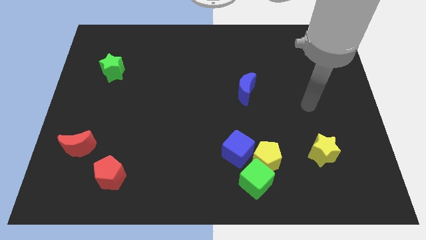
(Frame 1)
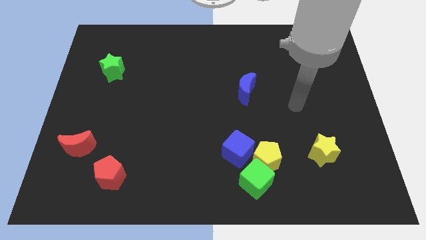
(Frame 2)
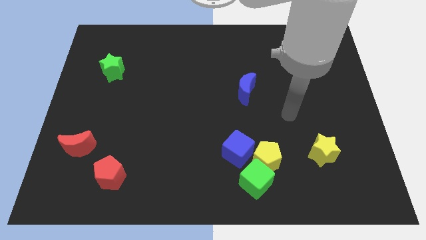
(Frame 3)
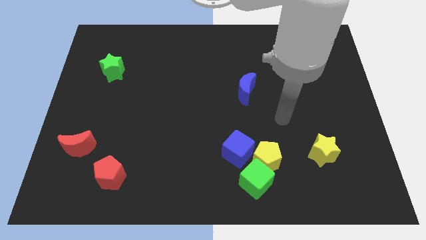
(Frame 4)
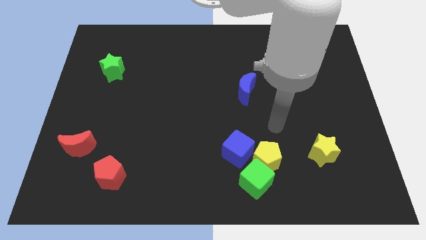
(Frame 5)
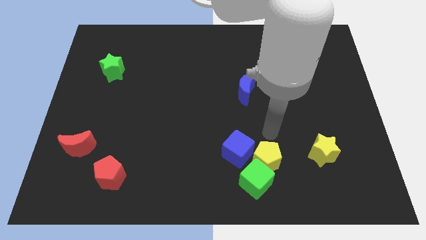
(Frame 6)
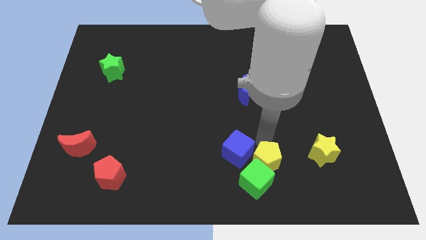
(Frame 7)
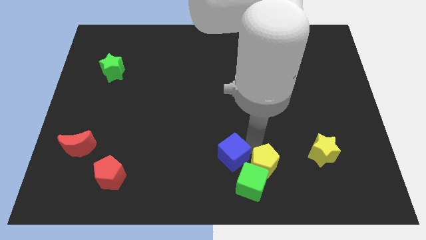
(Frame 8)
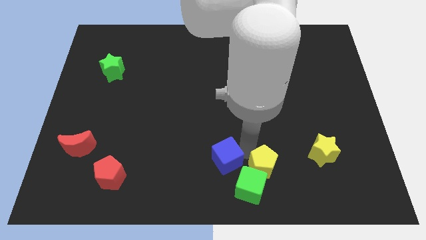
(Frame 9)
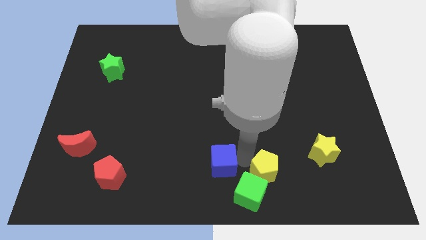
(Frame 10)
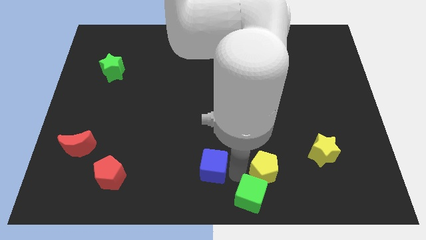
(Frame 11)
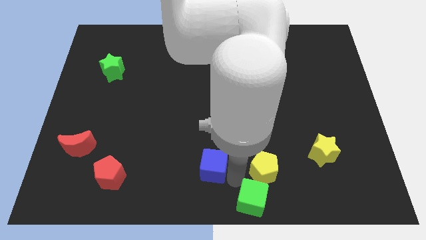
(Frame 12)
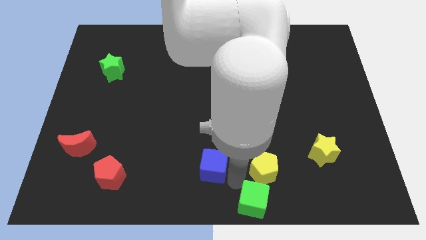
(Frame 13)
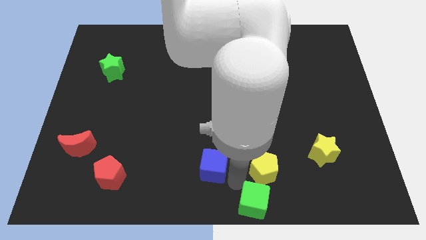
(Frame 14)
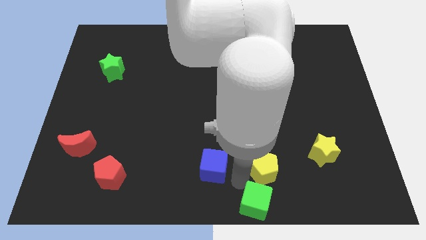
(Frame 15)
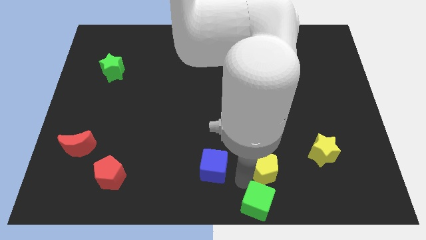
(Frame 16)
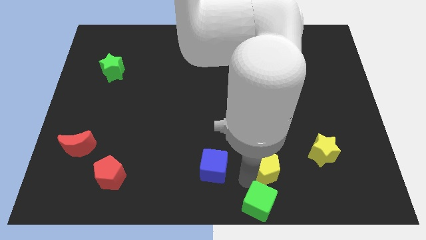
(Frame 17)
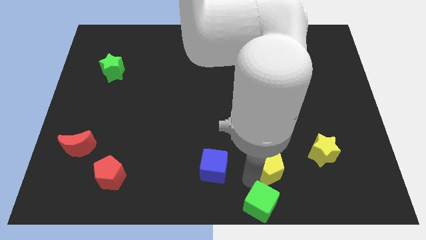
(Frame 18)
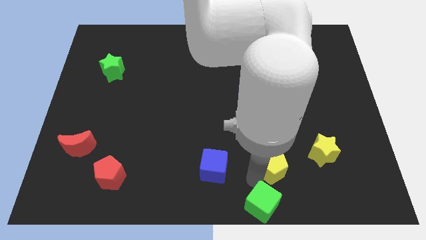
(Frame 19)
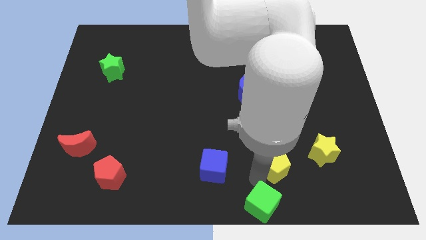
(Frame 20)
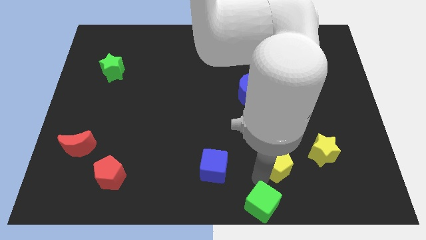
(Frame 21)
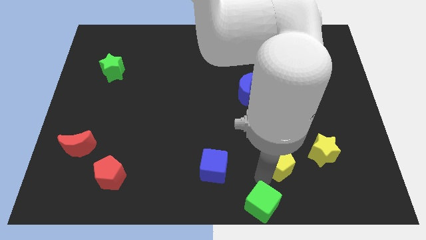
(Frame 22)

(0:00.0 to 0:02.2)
separate the yellow pentagon from the green cube and blue cube

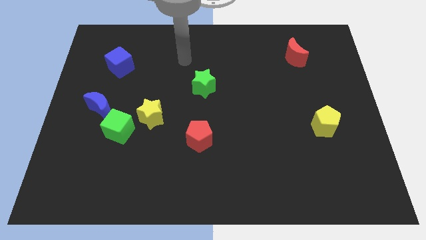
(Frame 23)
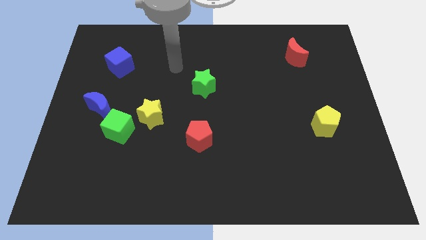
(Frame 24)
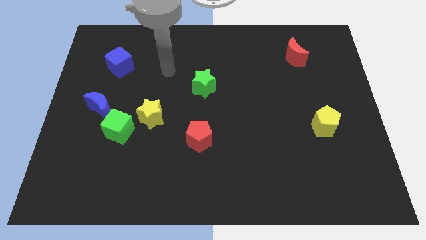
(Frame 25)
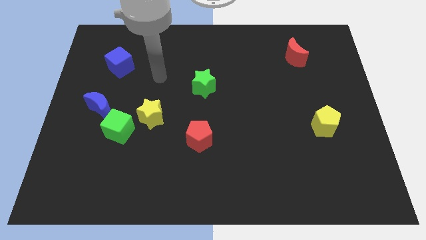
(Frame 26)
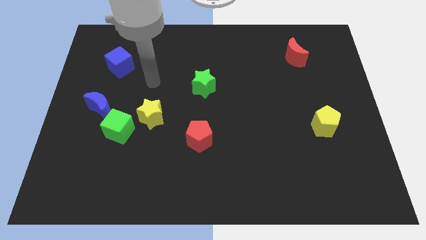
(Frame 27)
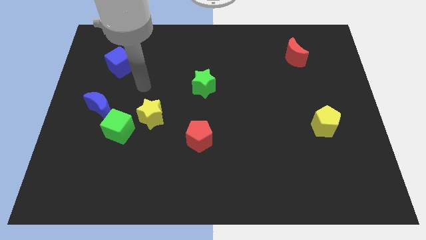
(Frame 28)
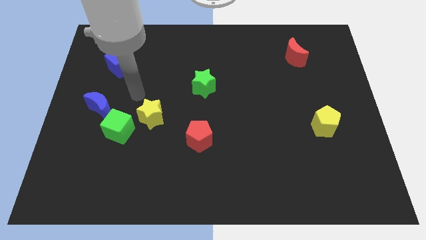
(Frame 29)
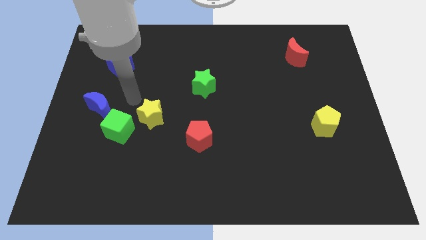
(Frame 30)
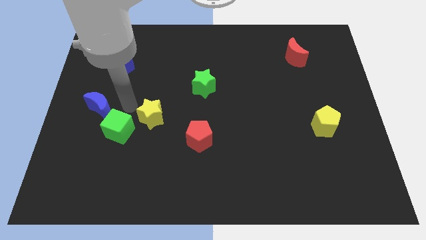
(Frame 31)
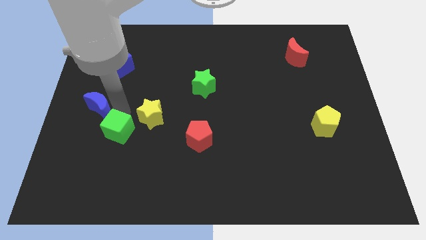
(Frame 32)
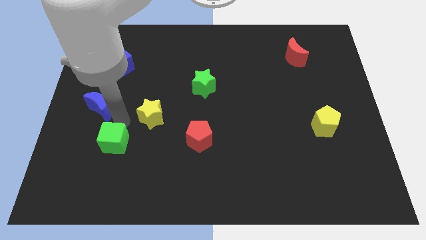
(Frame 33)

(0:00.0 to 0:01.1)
move the yellow star away from the green cube

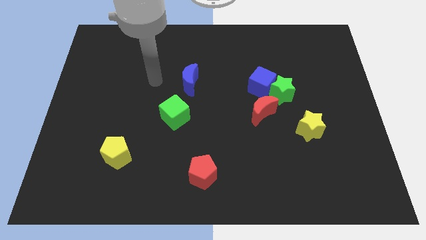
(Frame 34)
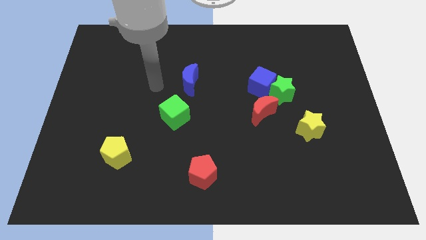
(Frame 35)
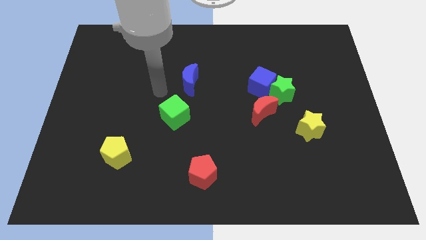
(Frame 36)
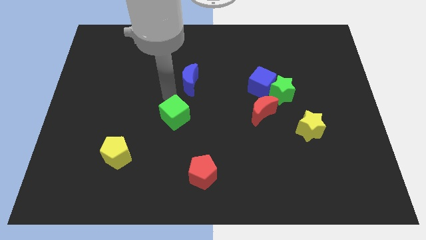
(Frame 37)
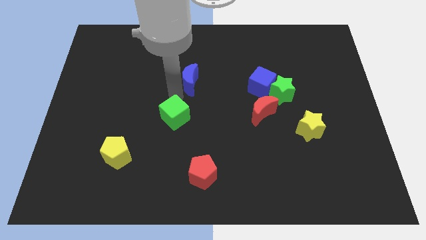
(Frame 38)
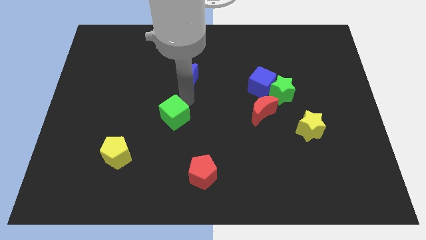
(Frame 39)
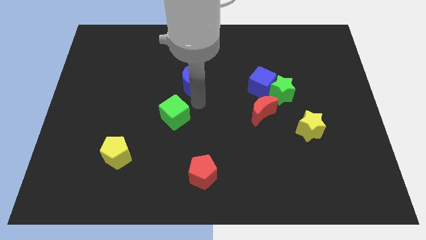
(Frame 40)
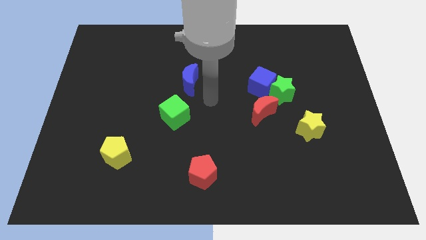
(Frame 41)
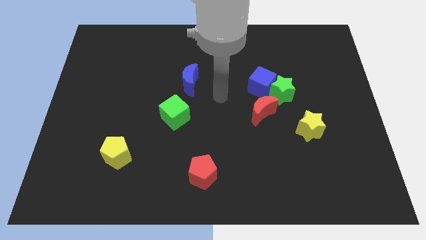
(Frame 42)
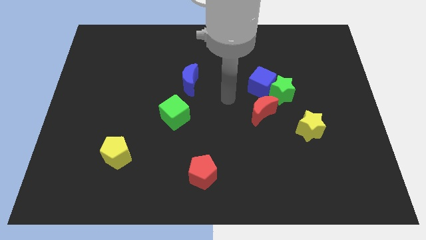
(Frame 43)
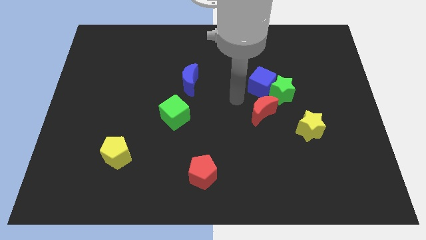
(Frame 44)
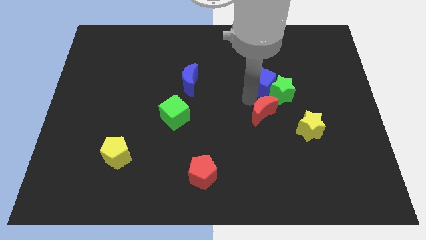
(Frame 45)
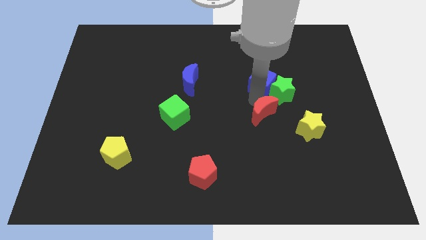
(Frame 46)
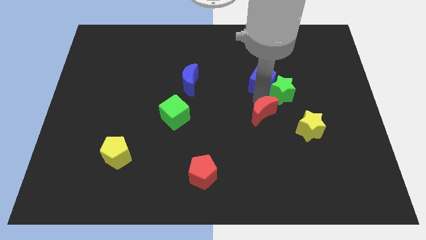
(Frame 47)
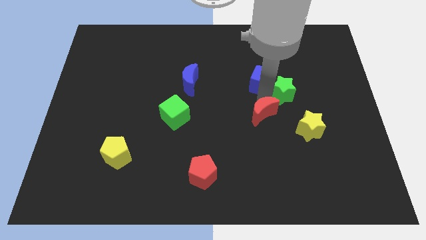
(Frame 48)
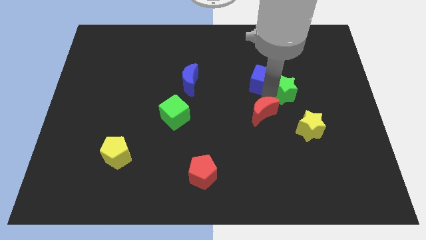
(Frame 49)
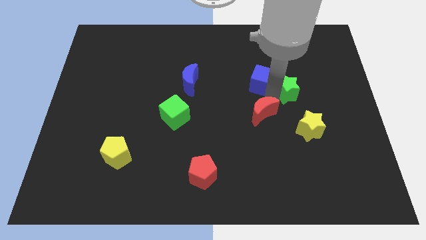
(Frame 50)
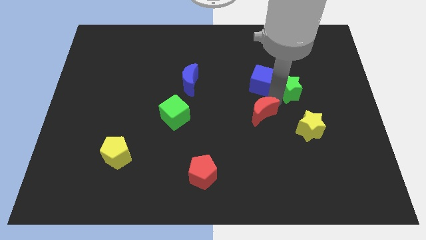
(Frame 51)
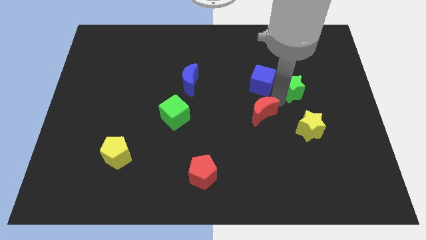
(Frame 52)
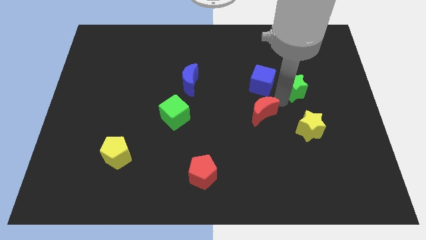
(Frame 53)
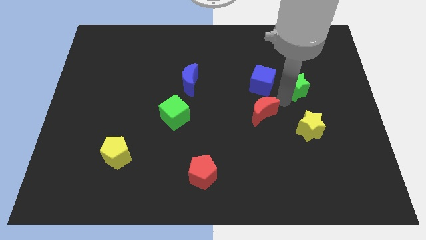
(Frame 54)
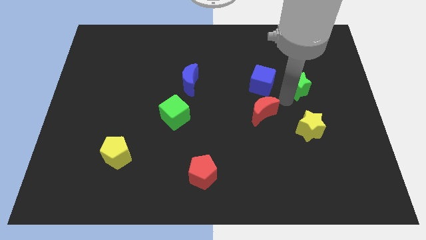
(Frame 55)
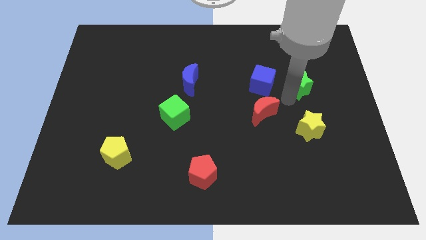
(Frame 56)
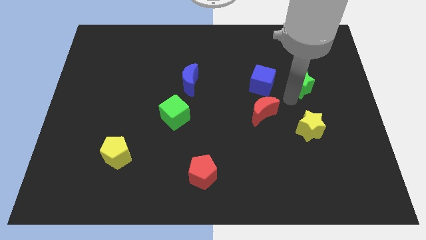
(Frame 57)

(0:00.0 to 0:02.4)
pull the green star apart from the blue cube and red moon

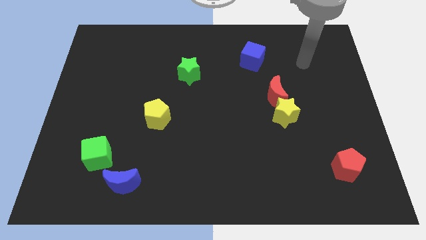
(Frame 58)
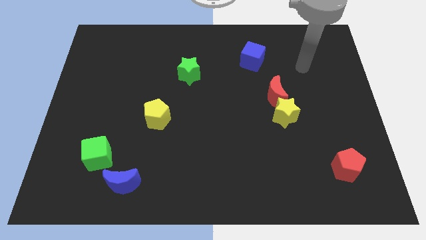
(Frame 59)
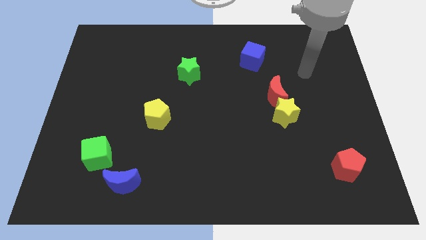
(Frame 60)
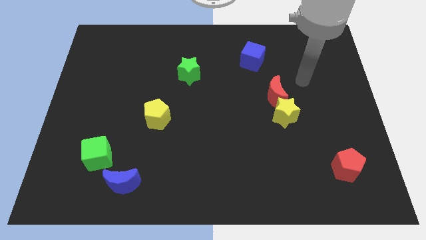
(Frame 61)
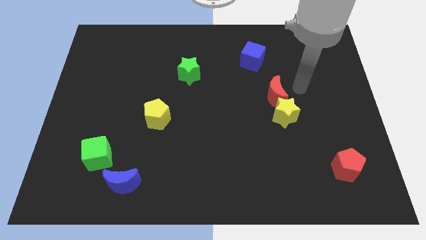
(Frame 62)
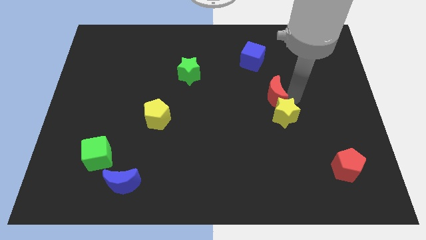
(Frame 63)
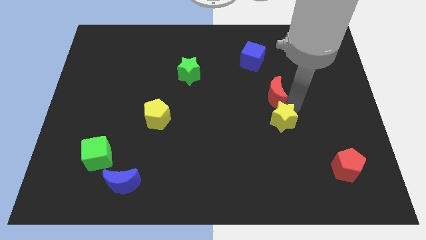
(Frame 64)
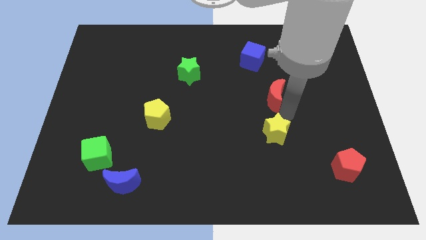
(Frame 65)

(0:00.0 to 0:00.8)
move the red moon away from the yellow star

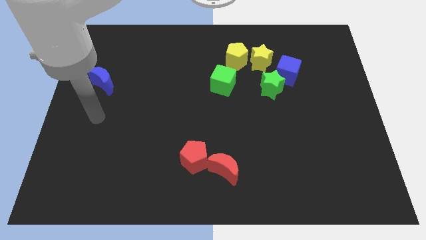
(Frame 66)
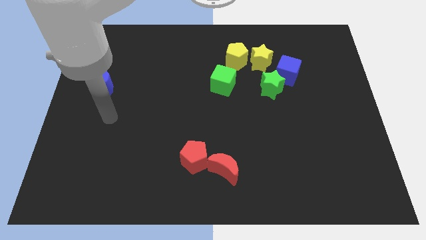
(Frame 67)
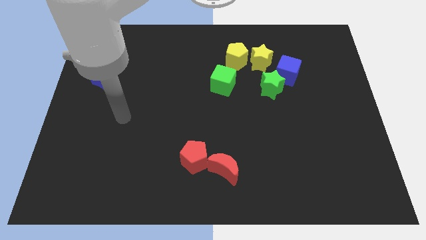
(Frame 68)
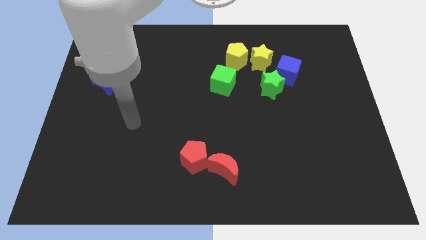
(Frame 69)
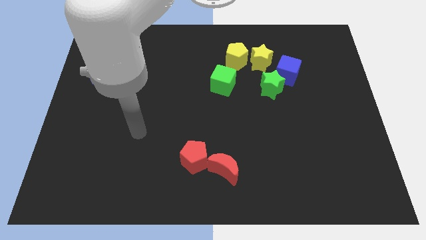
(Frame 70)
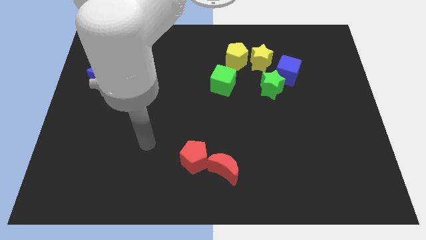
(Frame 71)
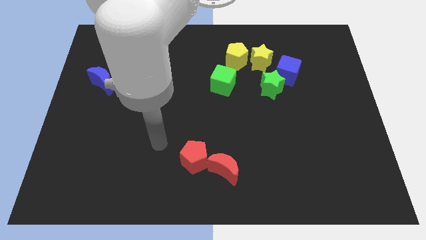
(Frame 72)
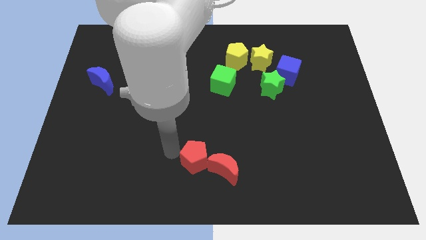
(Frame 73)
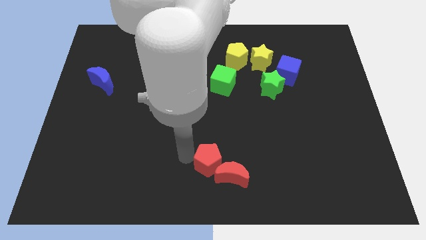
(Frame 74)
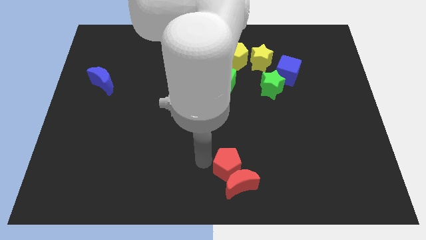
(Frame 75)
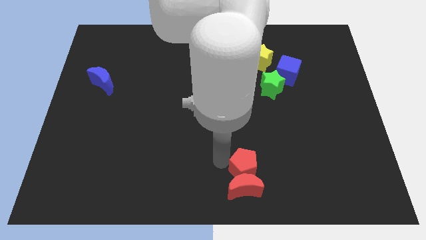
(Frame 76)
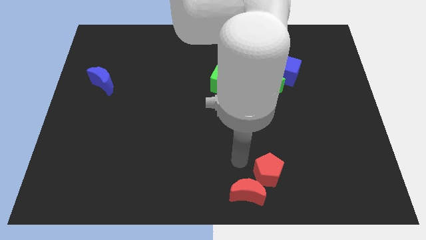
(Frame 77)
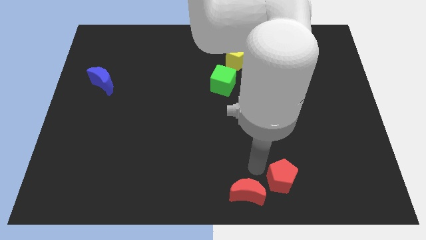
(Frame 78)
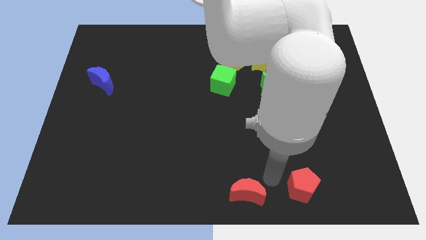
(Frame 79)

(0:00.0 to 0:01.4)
separate the red moon from the red pentagon

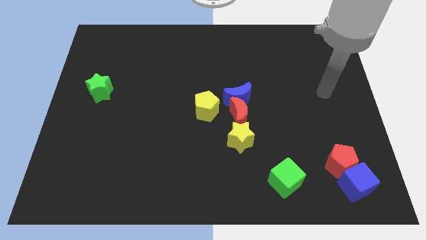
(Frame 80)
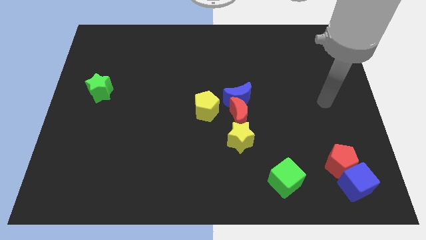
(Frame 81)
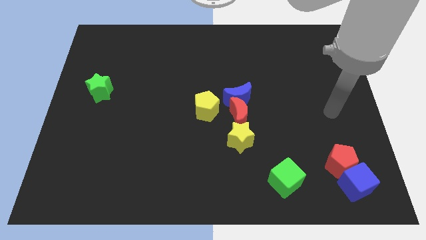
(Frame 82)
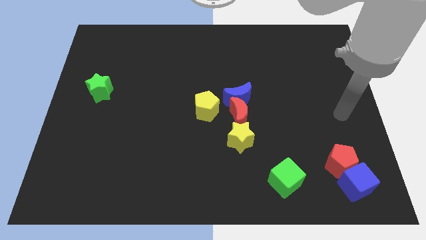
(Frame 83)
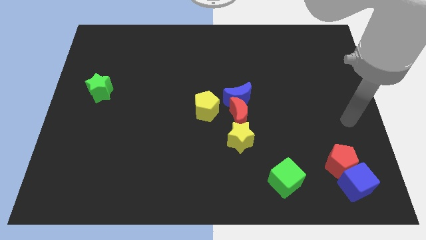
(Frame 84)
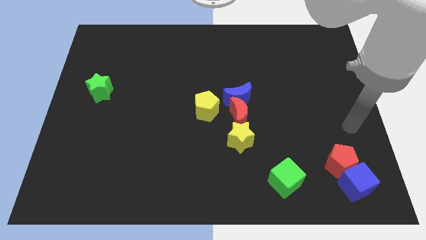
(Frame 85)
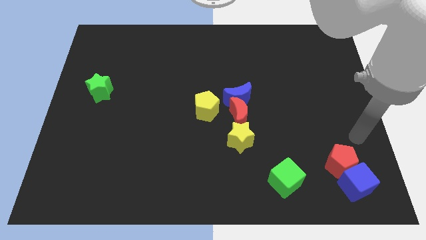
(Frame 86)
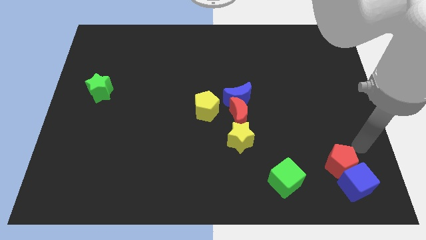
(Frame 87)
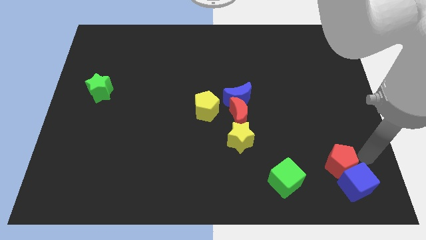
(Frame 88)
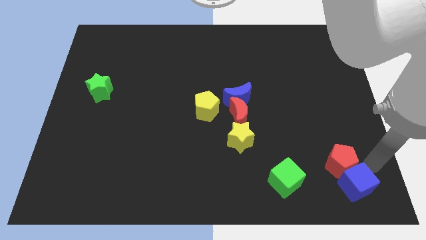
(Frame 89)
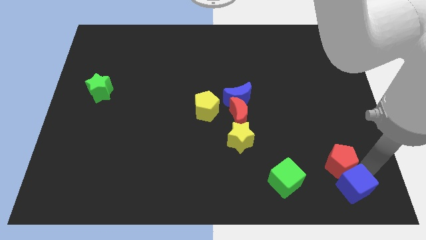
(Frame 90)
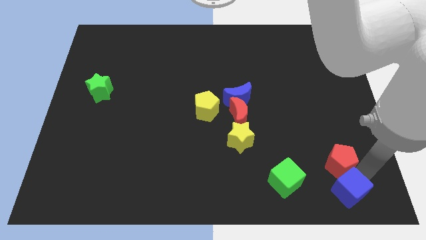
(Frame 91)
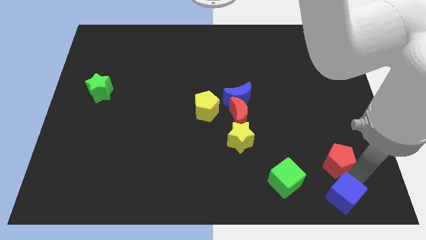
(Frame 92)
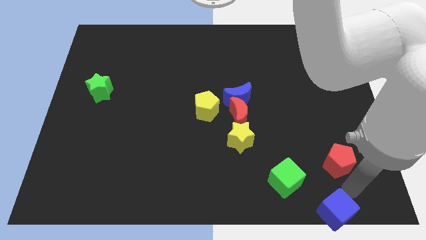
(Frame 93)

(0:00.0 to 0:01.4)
pull the red pentagon apart from the blue cube
